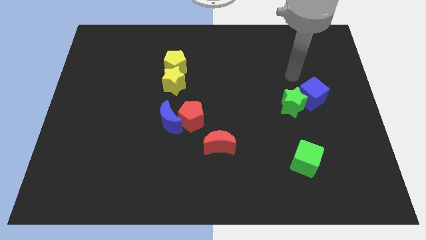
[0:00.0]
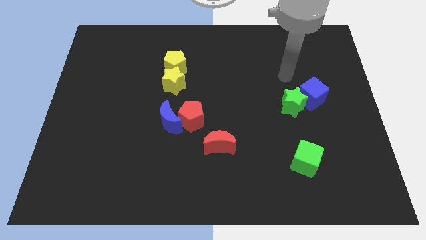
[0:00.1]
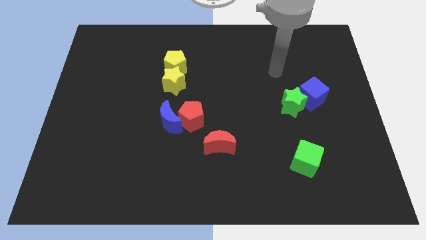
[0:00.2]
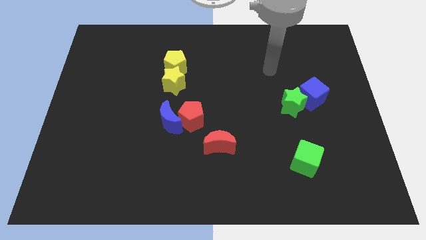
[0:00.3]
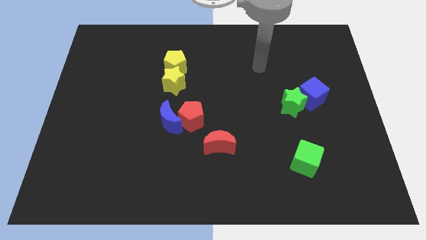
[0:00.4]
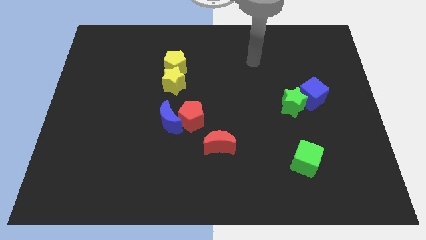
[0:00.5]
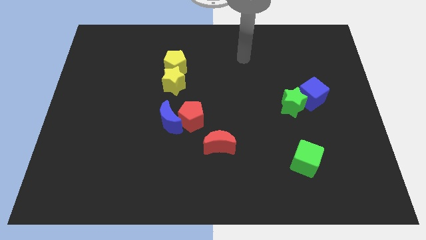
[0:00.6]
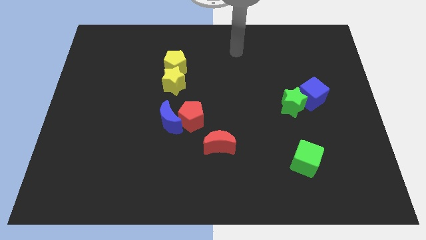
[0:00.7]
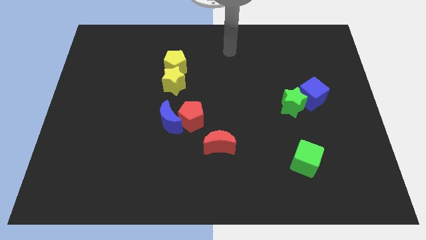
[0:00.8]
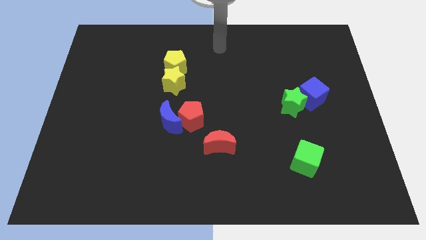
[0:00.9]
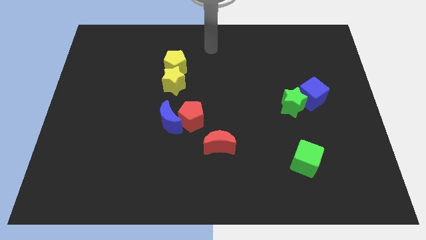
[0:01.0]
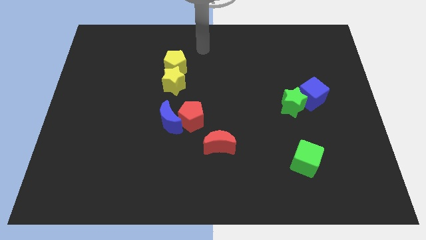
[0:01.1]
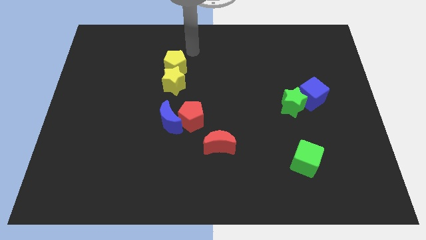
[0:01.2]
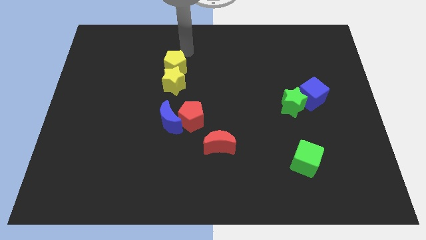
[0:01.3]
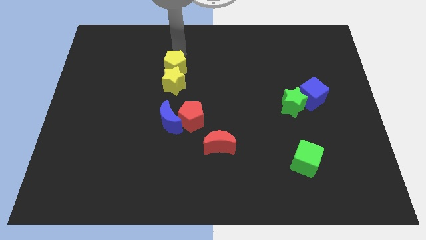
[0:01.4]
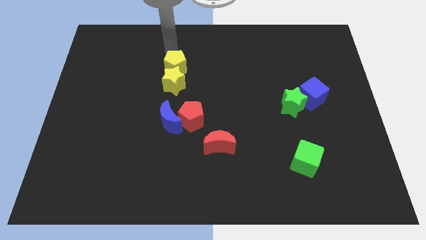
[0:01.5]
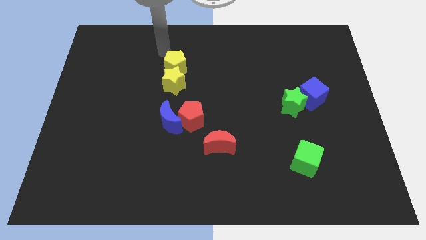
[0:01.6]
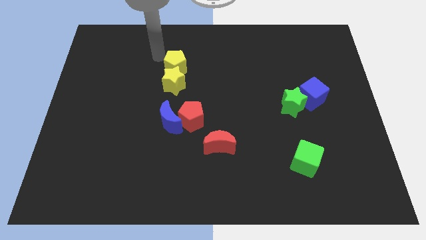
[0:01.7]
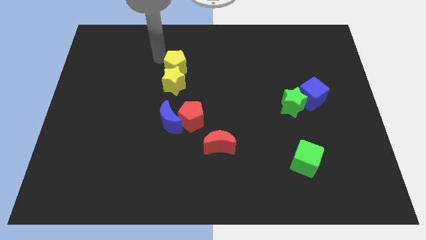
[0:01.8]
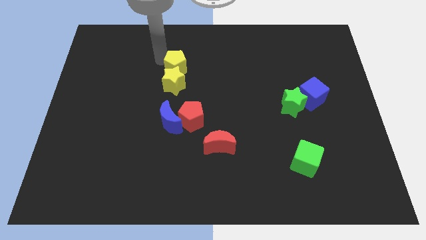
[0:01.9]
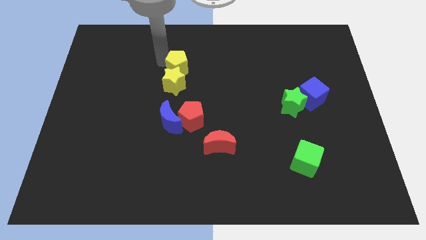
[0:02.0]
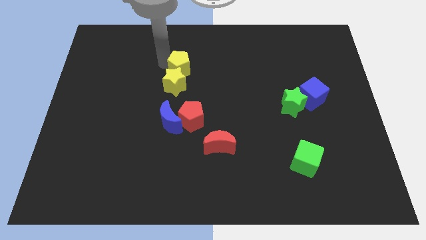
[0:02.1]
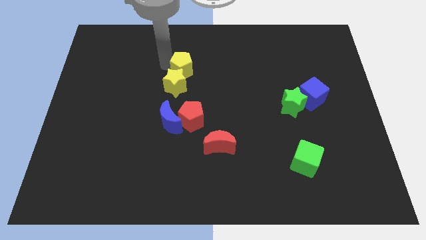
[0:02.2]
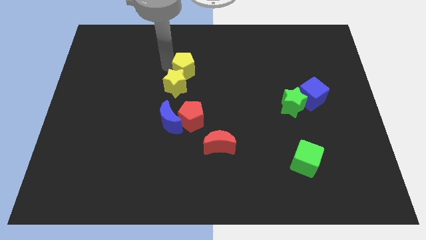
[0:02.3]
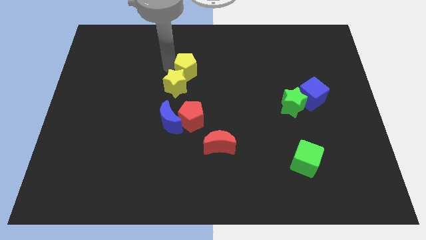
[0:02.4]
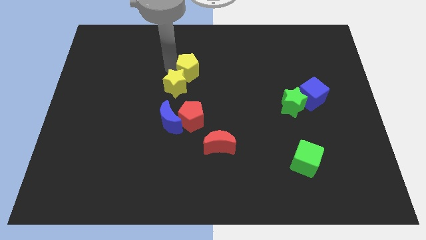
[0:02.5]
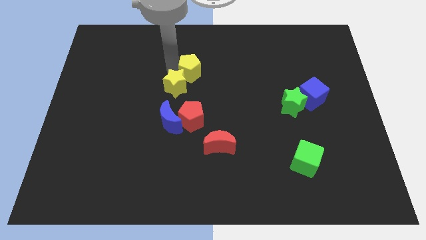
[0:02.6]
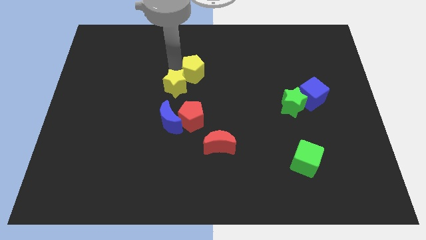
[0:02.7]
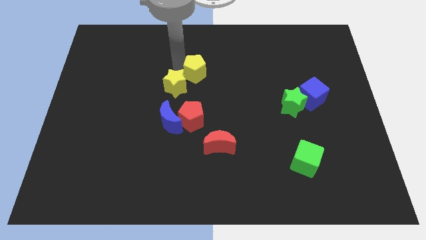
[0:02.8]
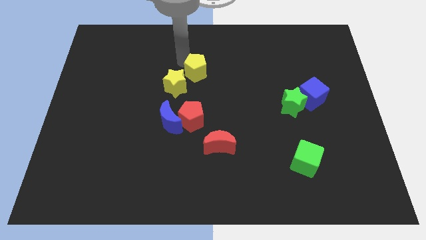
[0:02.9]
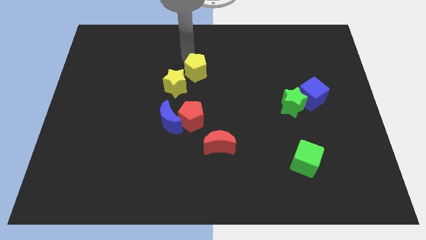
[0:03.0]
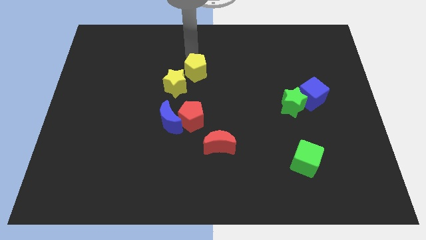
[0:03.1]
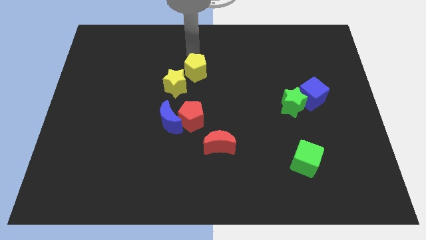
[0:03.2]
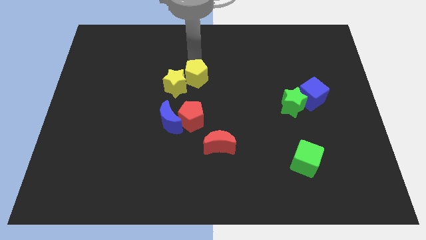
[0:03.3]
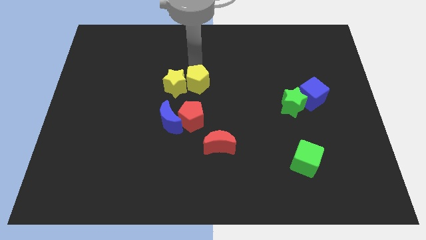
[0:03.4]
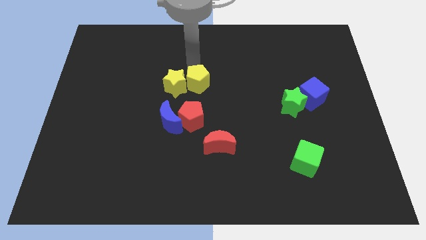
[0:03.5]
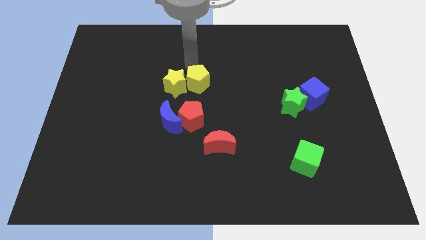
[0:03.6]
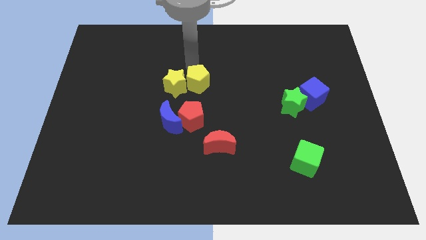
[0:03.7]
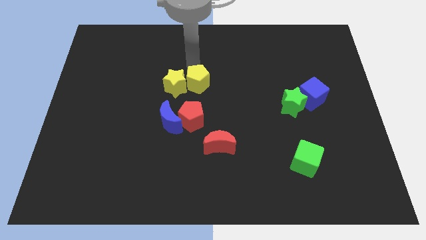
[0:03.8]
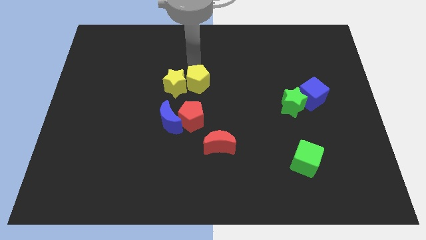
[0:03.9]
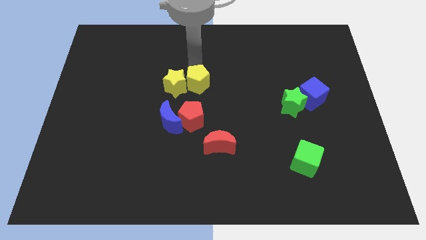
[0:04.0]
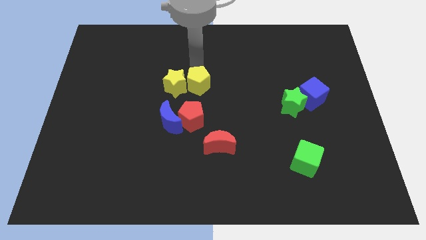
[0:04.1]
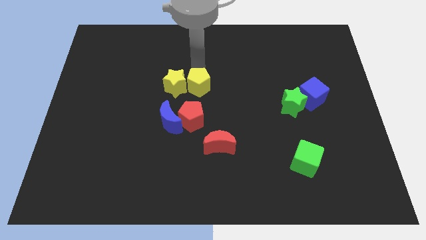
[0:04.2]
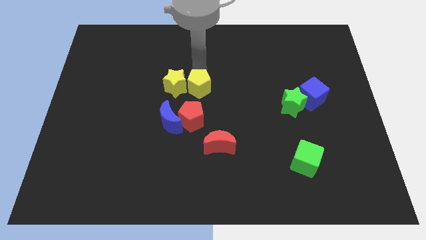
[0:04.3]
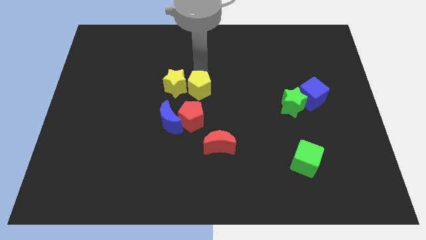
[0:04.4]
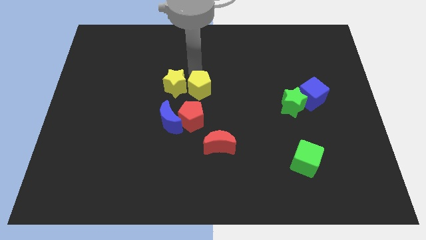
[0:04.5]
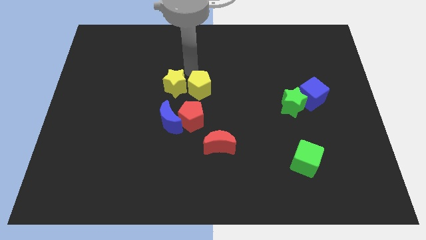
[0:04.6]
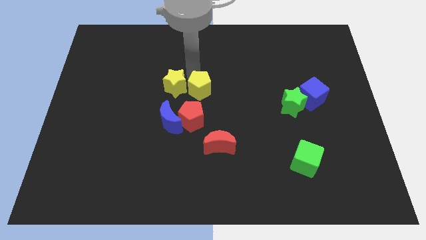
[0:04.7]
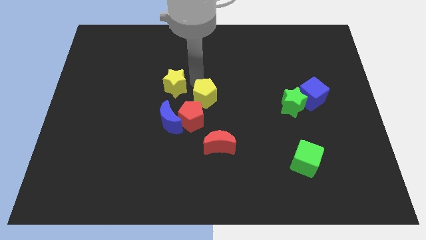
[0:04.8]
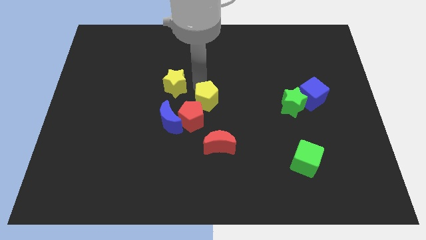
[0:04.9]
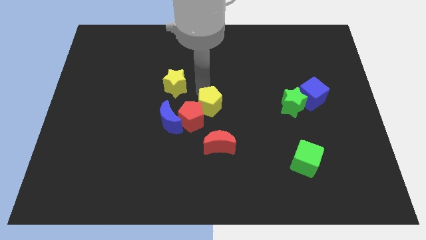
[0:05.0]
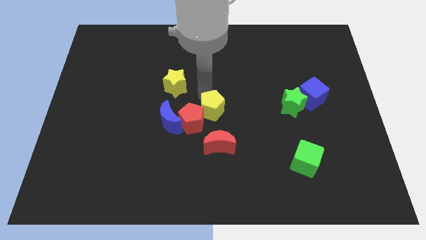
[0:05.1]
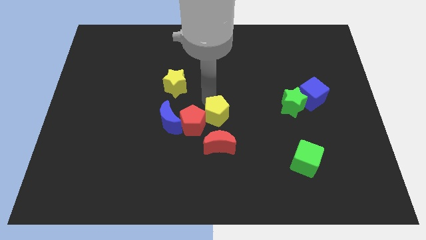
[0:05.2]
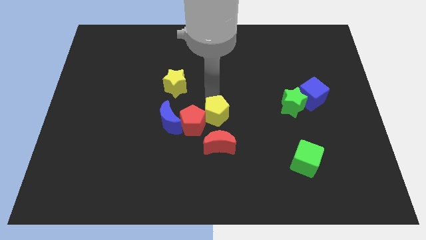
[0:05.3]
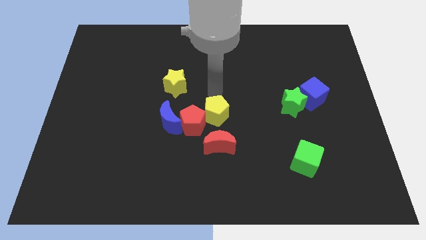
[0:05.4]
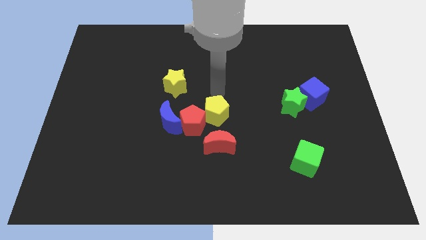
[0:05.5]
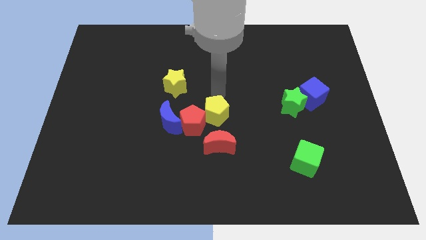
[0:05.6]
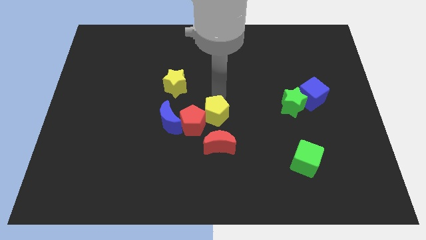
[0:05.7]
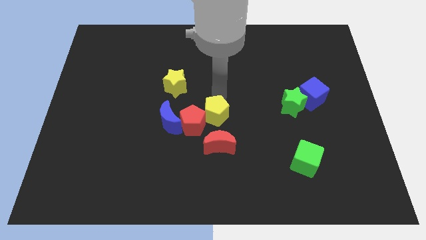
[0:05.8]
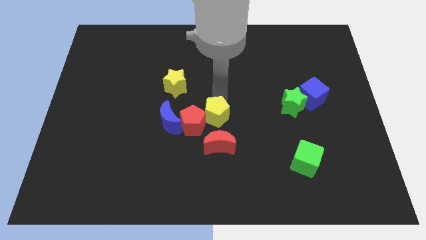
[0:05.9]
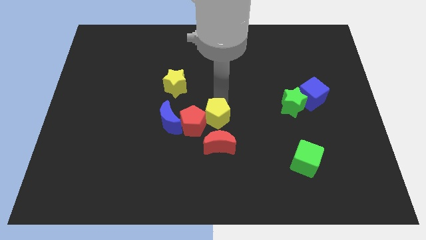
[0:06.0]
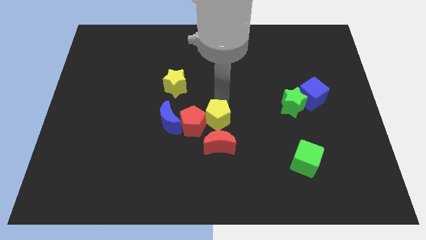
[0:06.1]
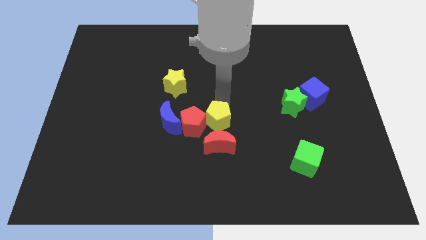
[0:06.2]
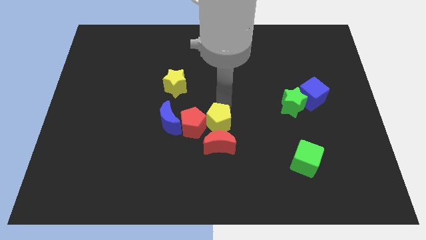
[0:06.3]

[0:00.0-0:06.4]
put the yellow pentagon to the red moon

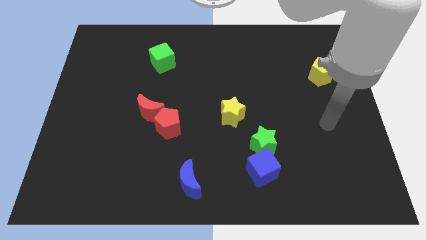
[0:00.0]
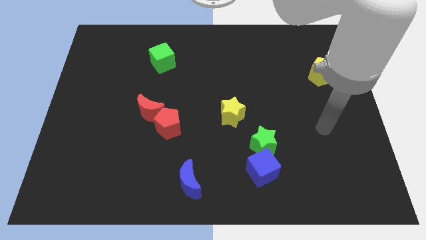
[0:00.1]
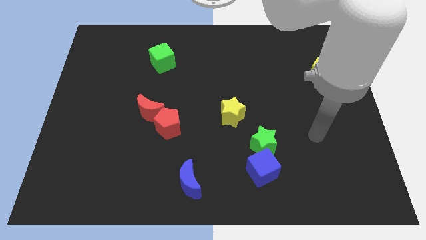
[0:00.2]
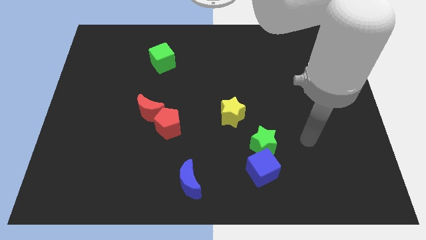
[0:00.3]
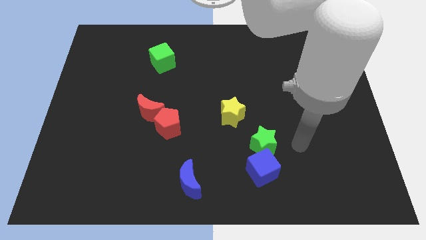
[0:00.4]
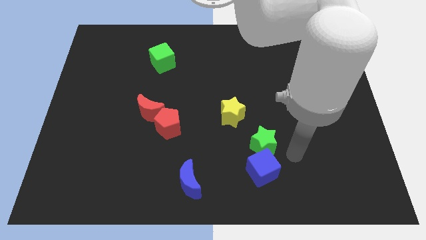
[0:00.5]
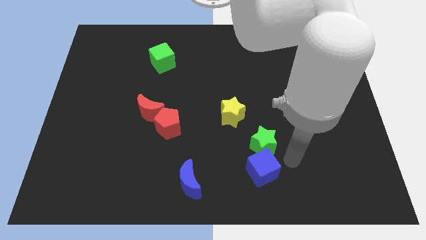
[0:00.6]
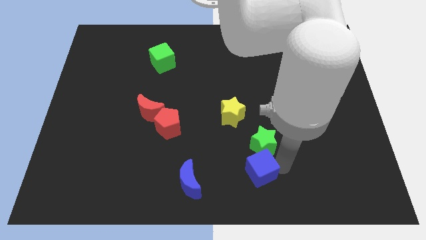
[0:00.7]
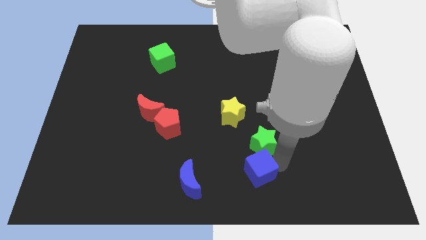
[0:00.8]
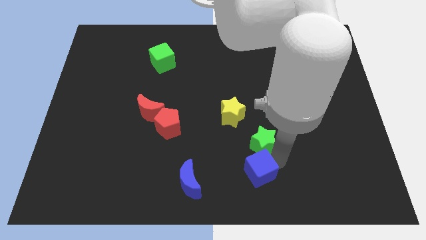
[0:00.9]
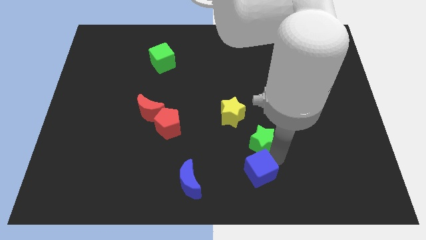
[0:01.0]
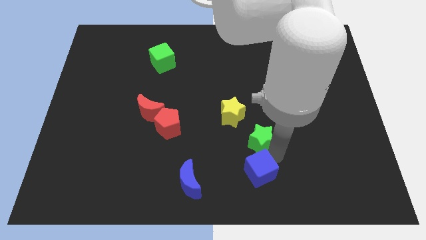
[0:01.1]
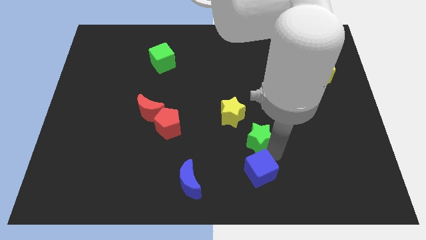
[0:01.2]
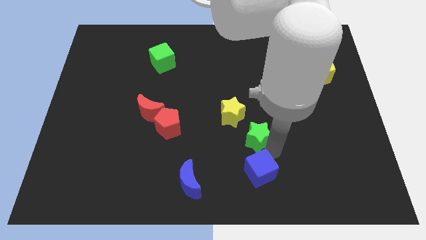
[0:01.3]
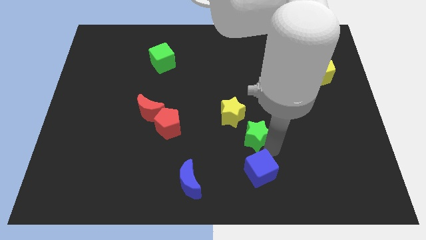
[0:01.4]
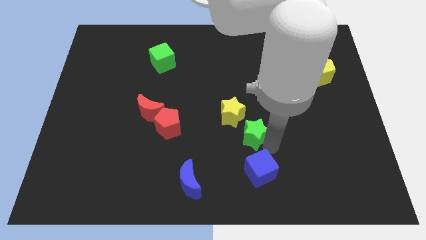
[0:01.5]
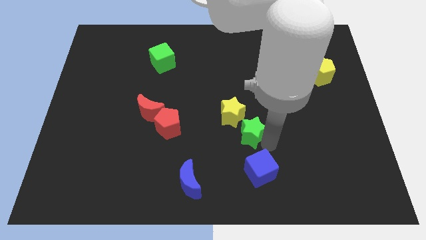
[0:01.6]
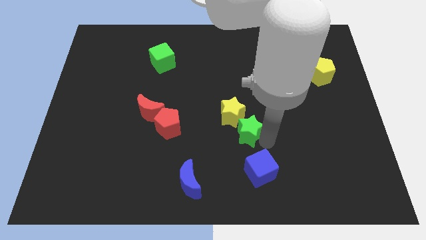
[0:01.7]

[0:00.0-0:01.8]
slide the green star to the yellow star
